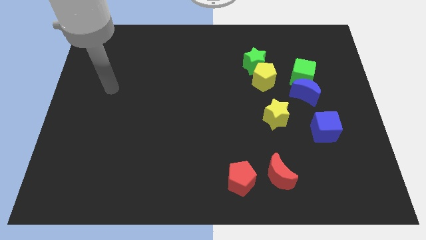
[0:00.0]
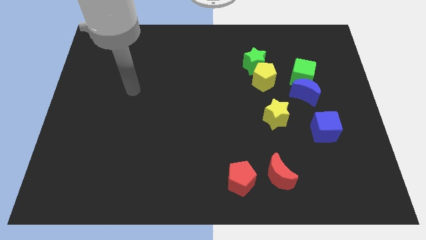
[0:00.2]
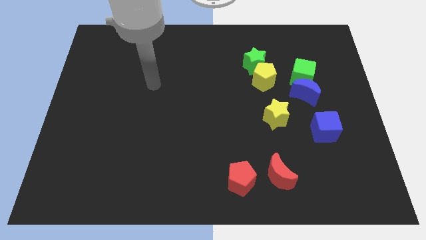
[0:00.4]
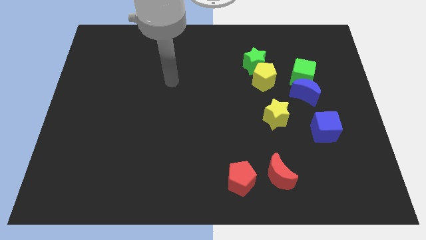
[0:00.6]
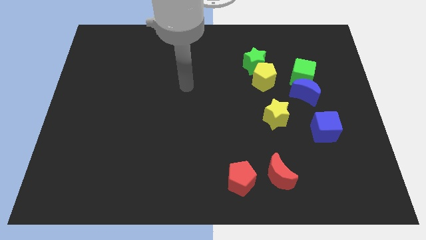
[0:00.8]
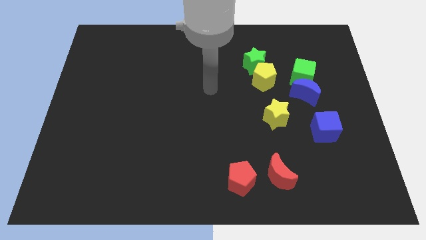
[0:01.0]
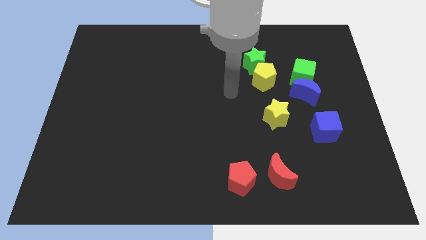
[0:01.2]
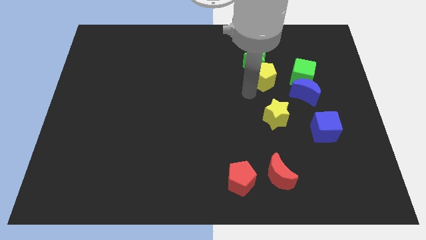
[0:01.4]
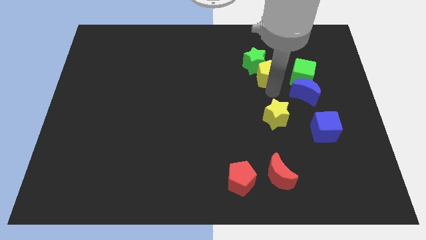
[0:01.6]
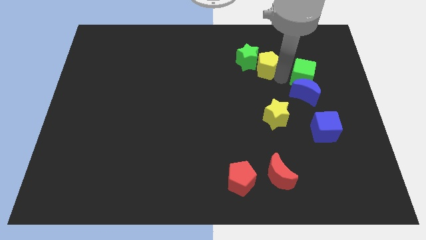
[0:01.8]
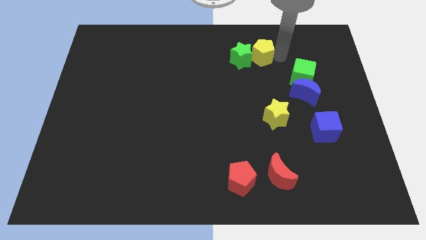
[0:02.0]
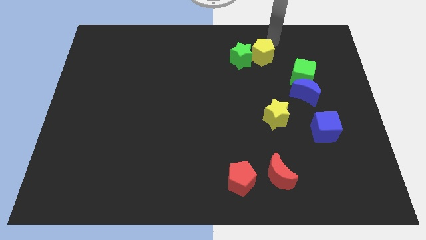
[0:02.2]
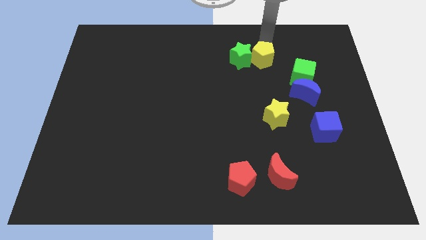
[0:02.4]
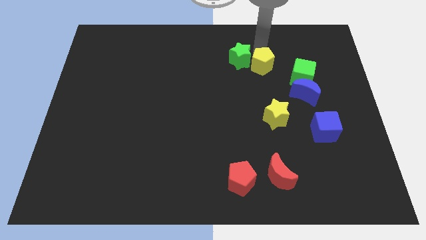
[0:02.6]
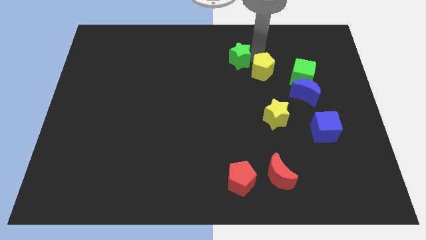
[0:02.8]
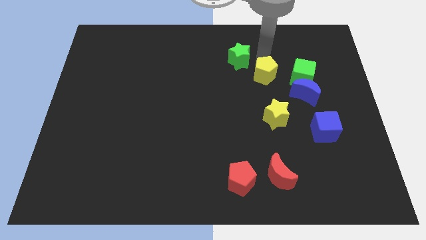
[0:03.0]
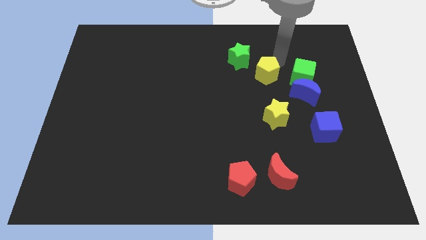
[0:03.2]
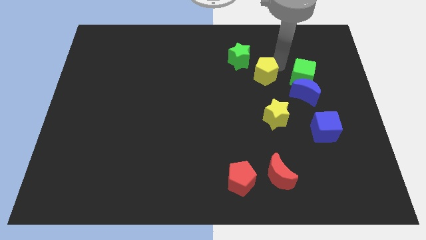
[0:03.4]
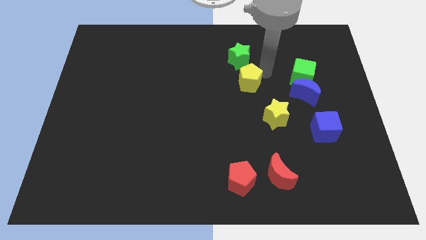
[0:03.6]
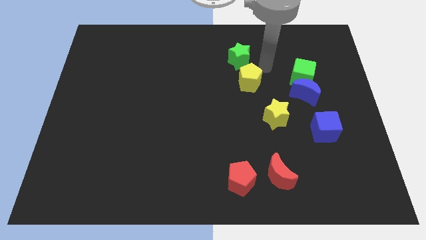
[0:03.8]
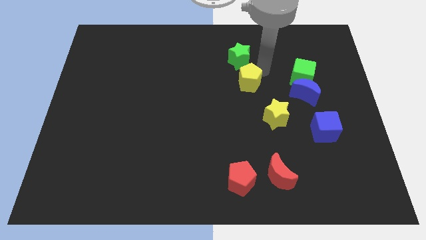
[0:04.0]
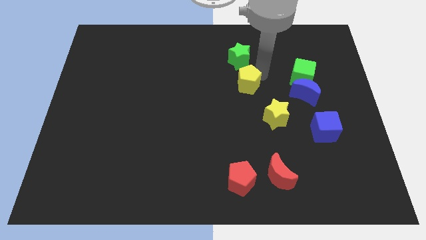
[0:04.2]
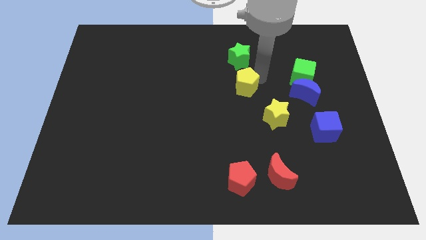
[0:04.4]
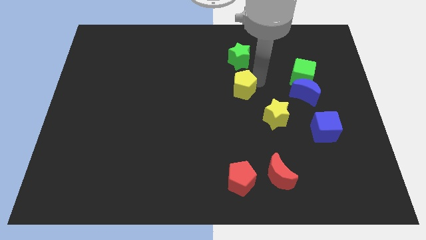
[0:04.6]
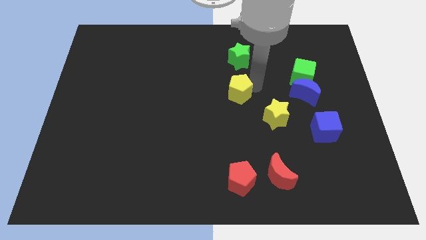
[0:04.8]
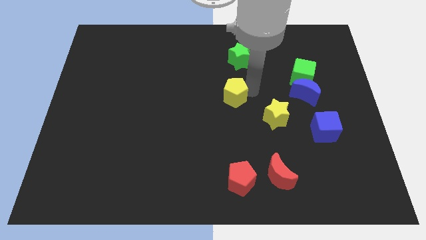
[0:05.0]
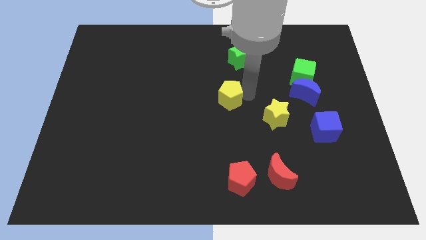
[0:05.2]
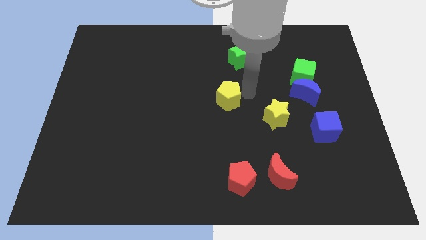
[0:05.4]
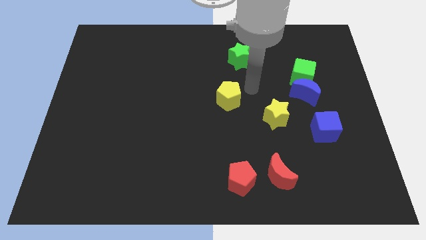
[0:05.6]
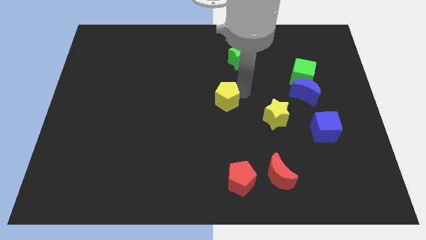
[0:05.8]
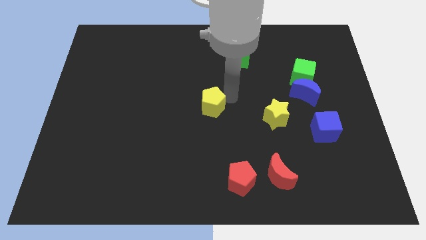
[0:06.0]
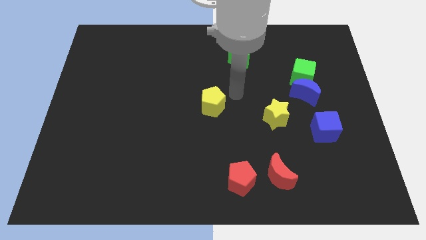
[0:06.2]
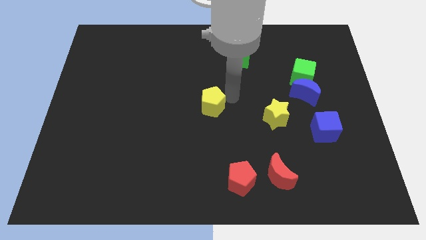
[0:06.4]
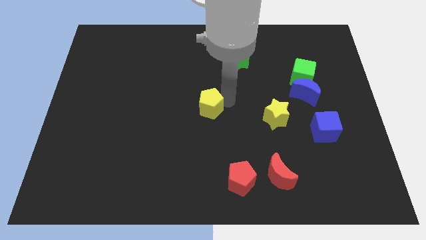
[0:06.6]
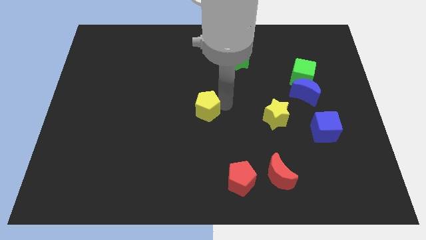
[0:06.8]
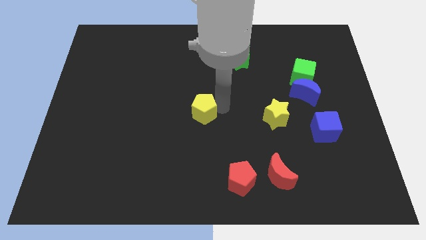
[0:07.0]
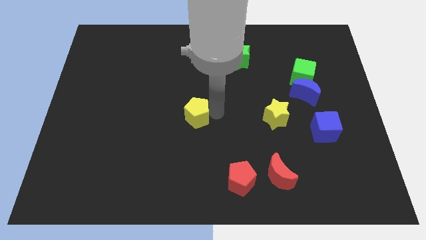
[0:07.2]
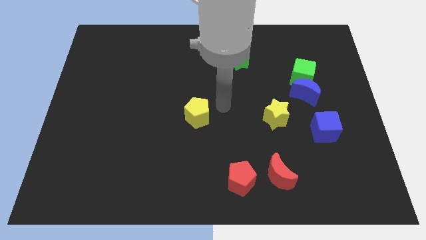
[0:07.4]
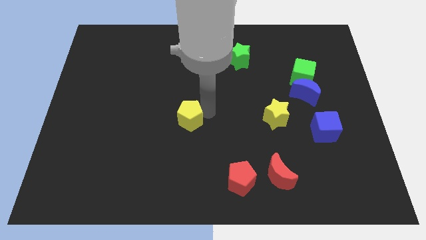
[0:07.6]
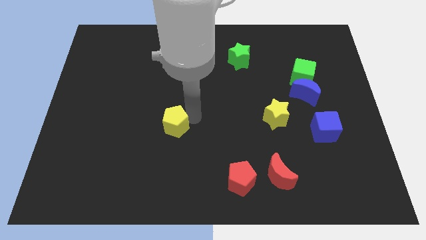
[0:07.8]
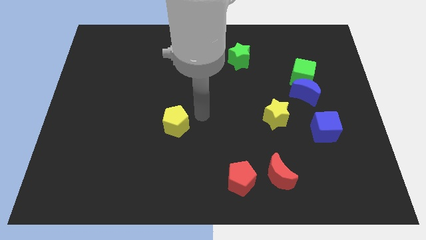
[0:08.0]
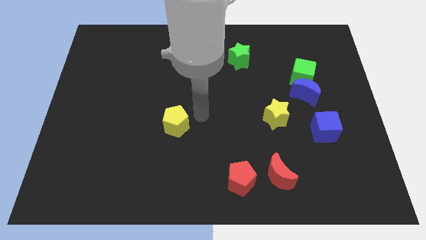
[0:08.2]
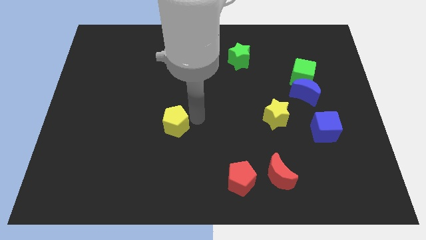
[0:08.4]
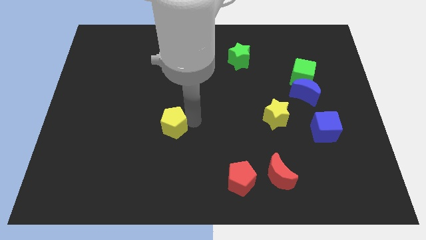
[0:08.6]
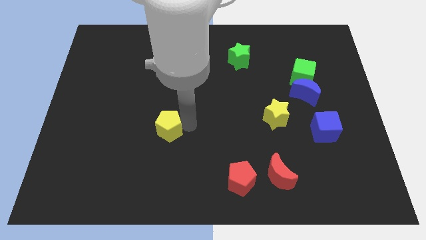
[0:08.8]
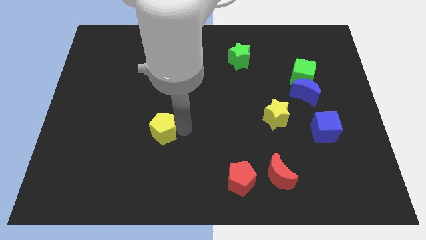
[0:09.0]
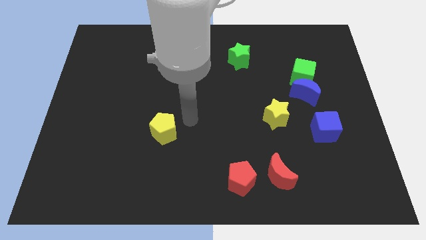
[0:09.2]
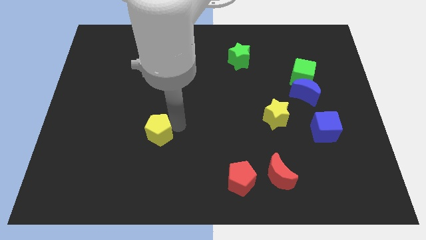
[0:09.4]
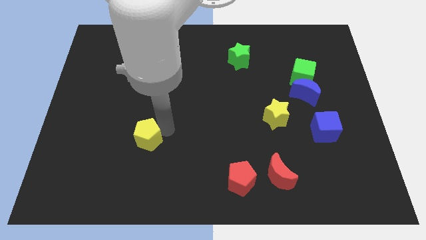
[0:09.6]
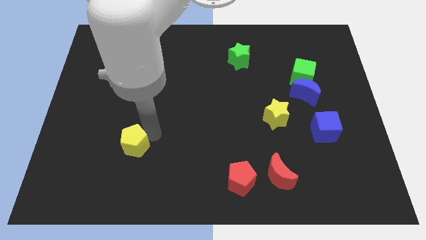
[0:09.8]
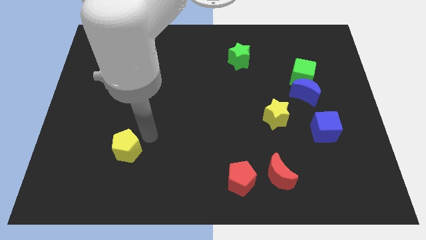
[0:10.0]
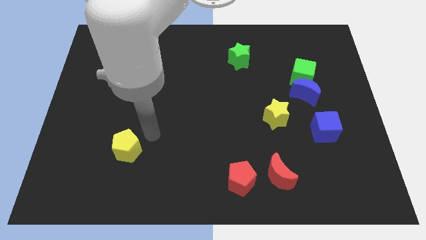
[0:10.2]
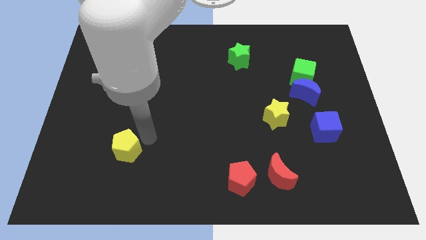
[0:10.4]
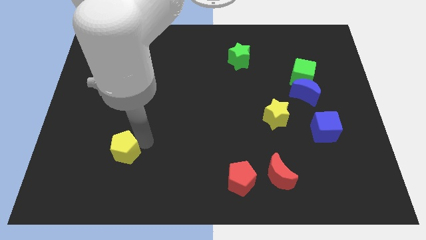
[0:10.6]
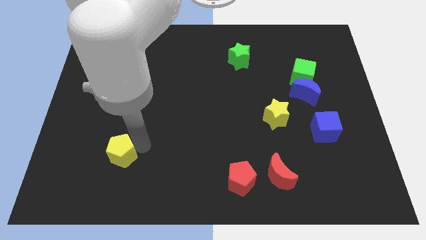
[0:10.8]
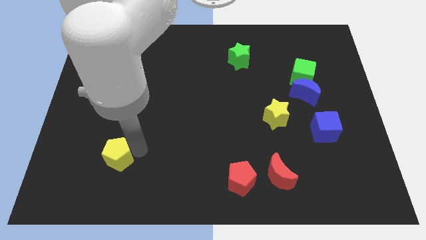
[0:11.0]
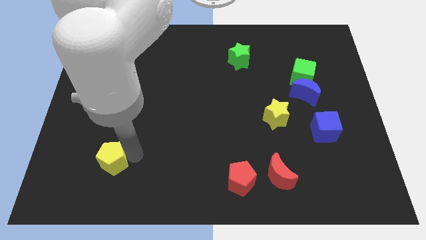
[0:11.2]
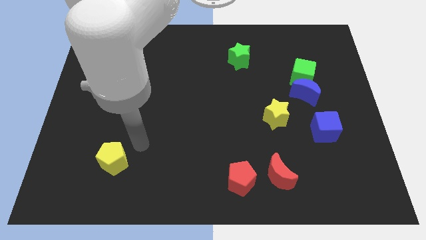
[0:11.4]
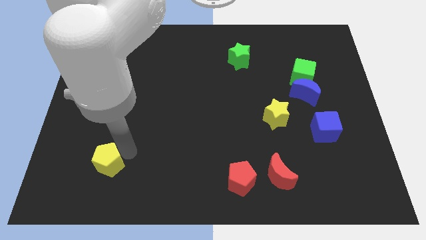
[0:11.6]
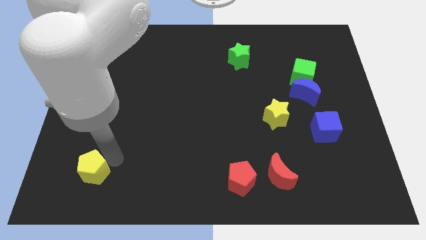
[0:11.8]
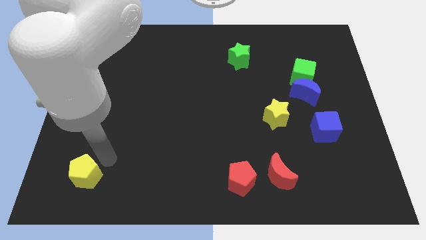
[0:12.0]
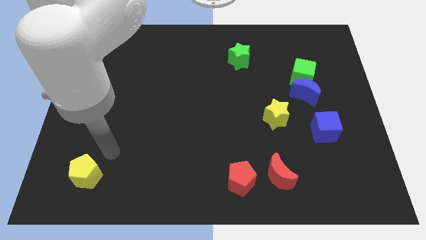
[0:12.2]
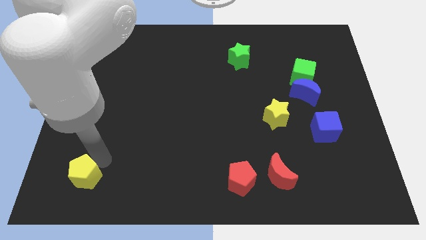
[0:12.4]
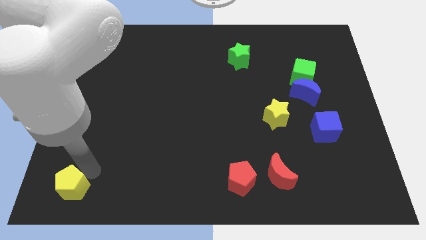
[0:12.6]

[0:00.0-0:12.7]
put the yellow pentagon to the bottom left corner

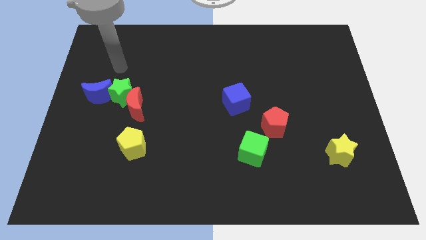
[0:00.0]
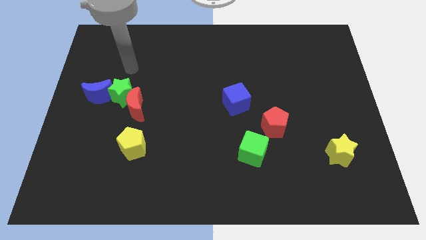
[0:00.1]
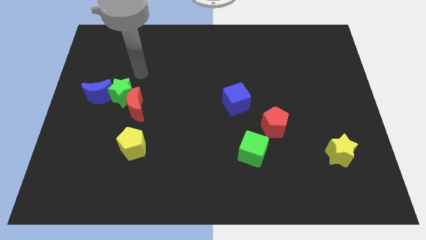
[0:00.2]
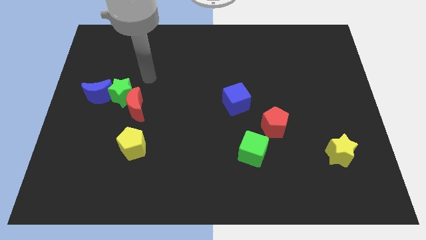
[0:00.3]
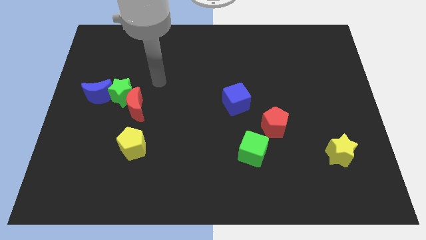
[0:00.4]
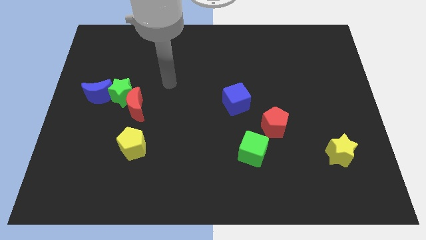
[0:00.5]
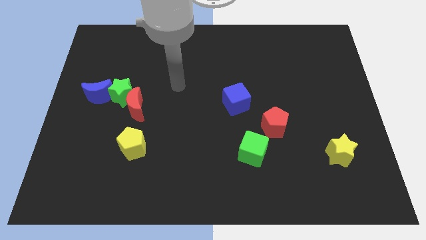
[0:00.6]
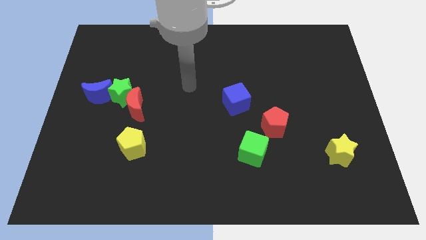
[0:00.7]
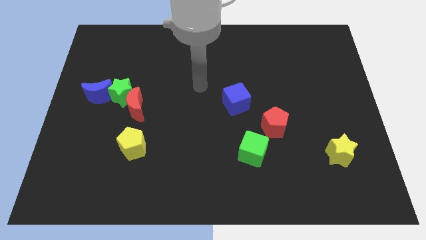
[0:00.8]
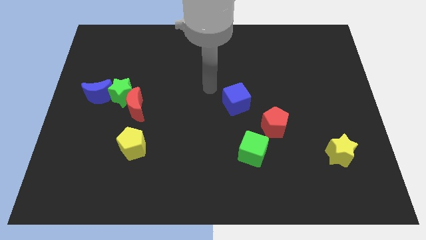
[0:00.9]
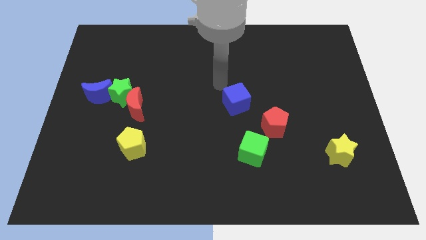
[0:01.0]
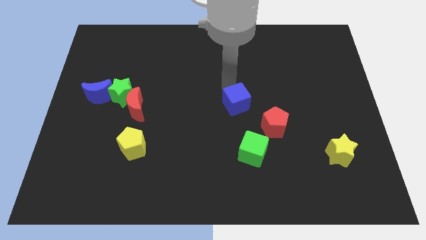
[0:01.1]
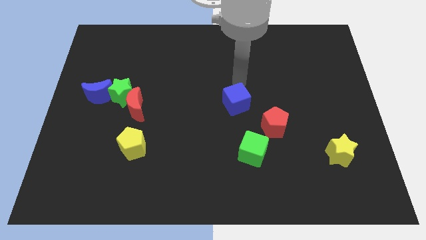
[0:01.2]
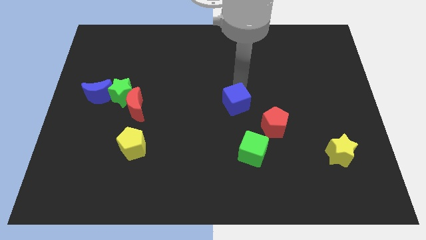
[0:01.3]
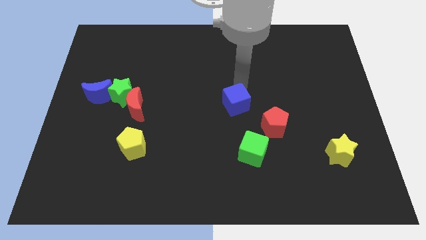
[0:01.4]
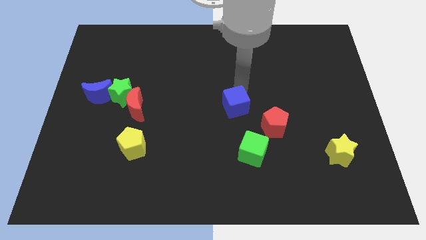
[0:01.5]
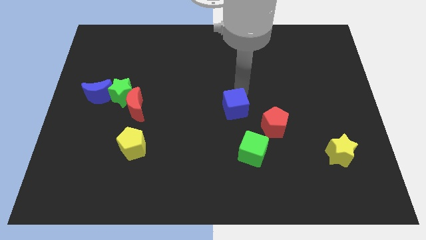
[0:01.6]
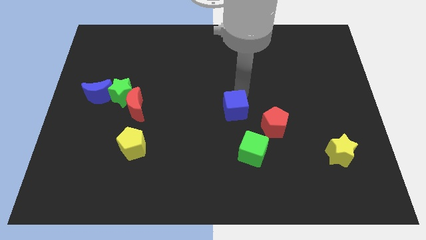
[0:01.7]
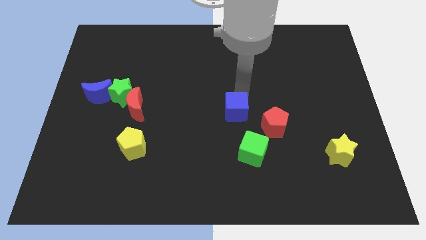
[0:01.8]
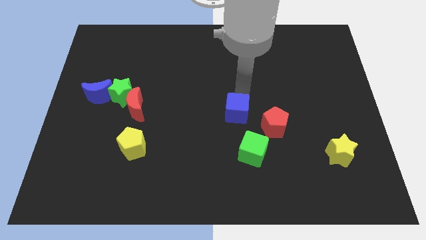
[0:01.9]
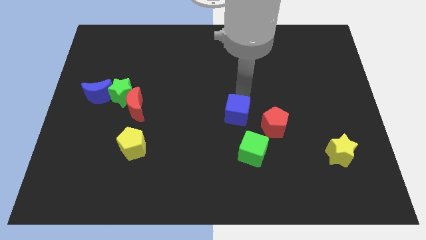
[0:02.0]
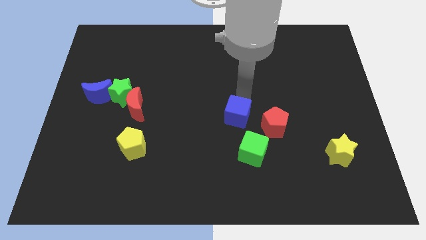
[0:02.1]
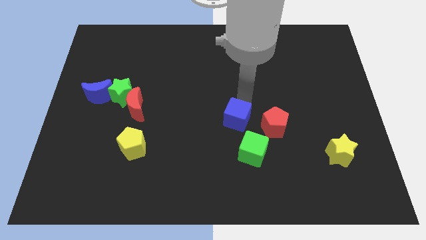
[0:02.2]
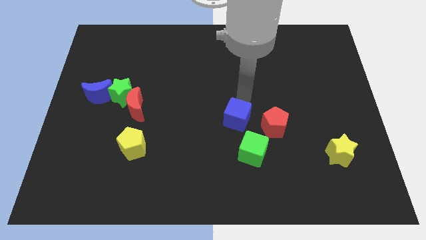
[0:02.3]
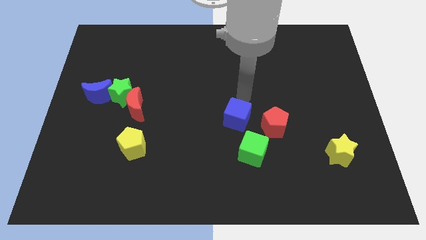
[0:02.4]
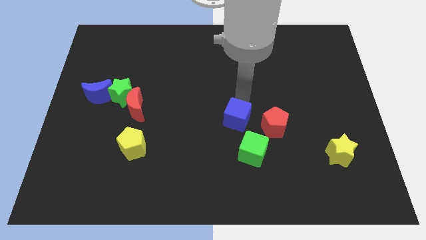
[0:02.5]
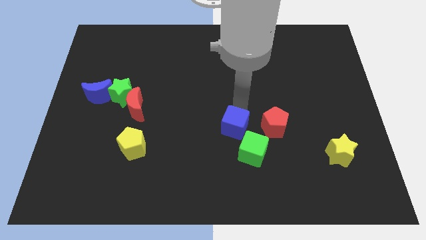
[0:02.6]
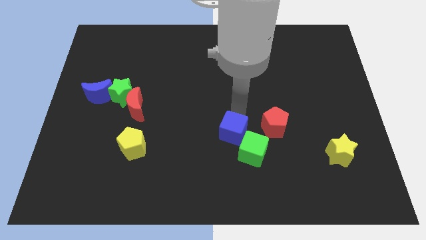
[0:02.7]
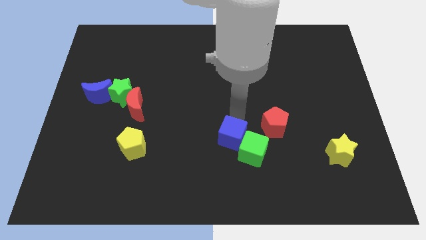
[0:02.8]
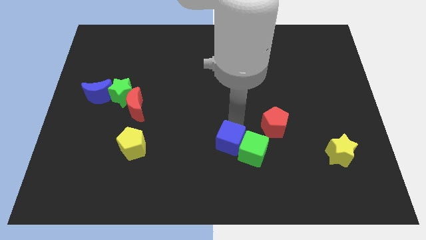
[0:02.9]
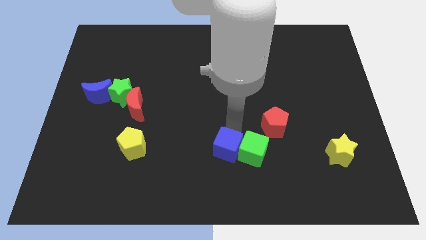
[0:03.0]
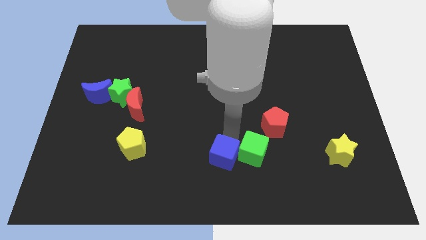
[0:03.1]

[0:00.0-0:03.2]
move the blue cube to the bottom
